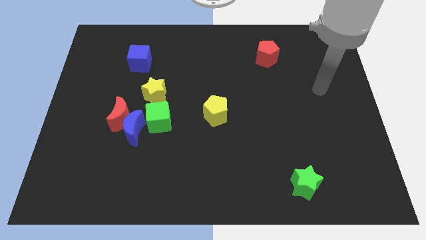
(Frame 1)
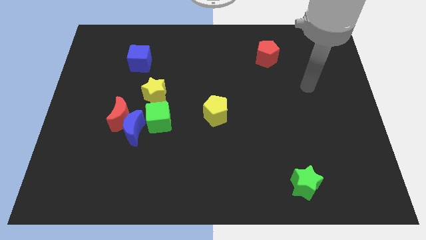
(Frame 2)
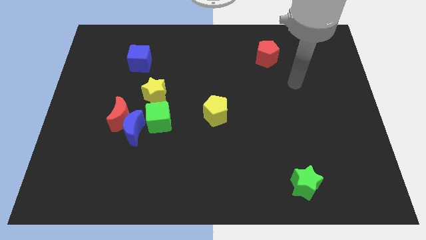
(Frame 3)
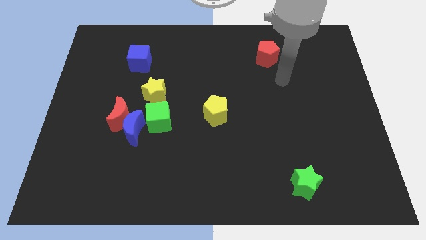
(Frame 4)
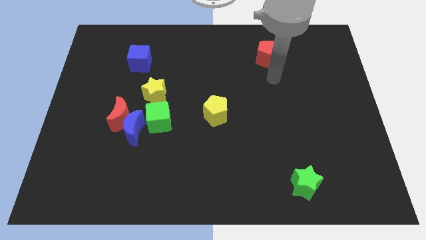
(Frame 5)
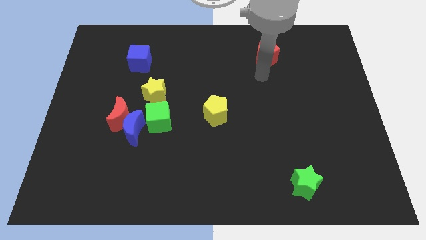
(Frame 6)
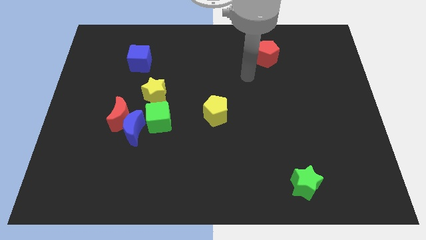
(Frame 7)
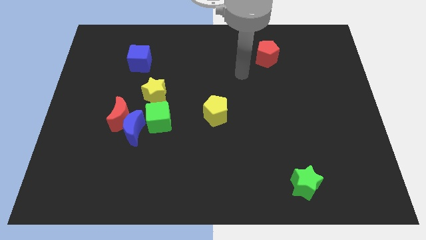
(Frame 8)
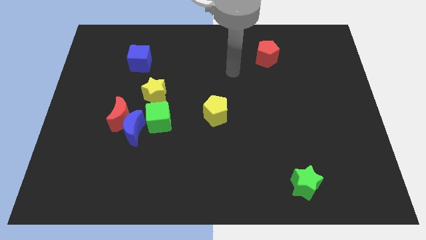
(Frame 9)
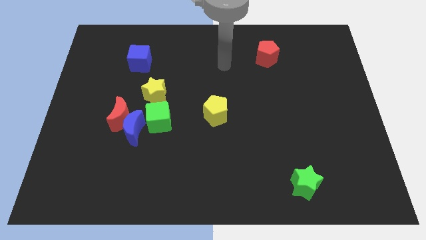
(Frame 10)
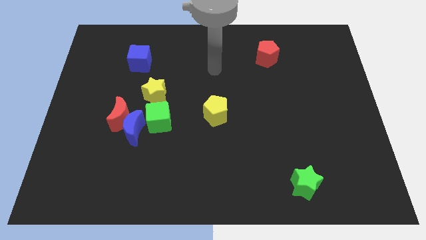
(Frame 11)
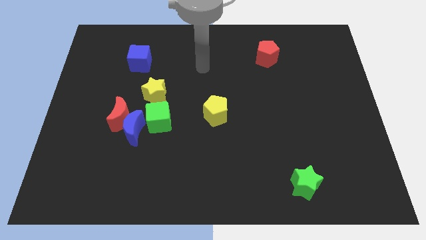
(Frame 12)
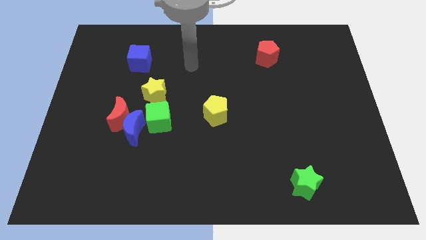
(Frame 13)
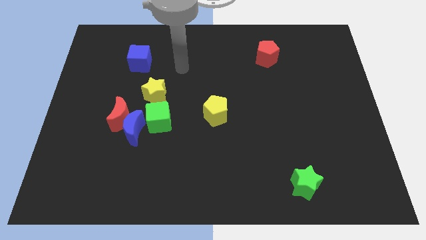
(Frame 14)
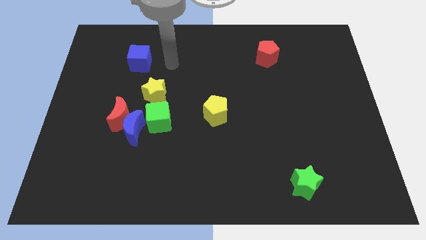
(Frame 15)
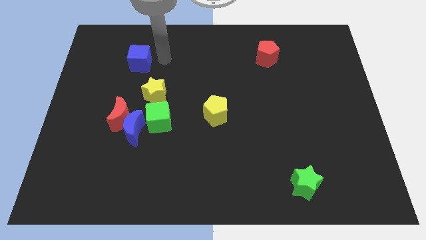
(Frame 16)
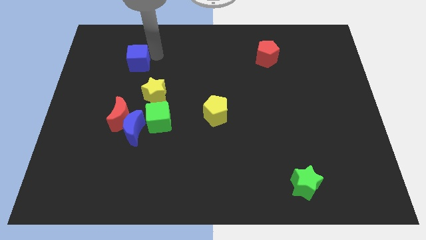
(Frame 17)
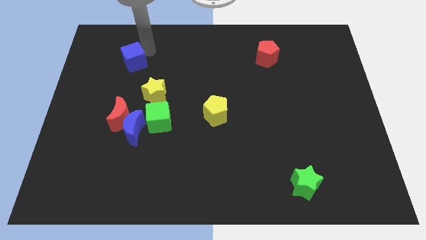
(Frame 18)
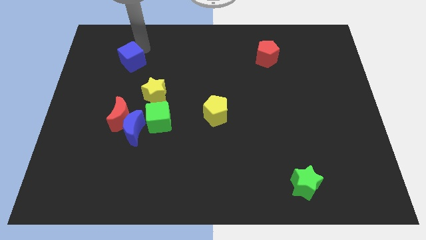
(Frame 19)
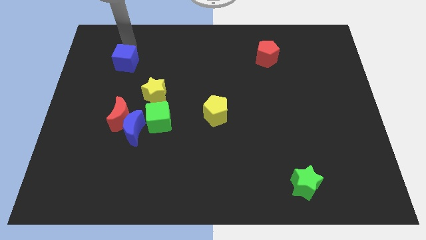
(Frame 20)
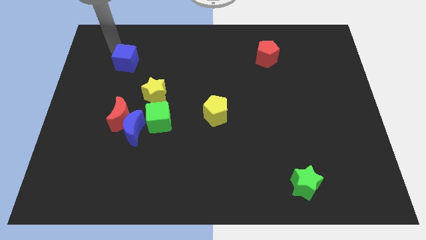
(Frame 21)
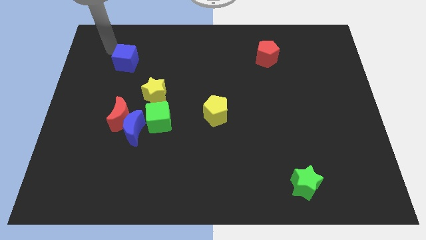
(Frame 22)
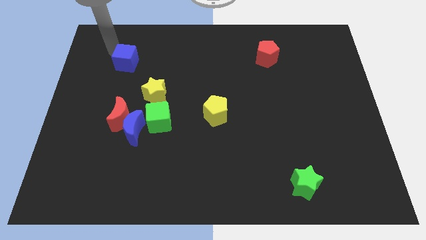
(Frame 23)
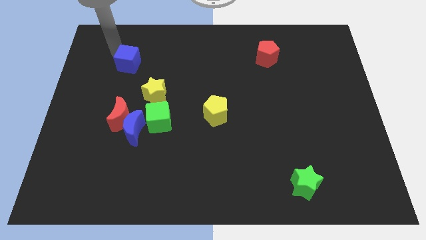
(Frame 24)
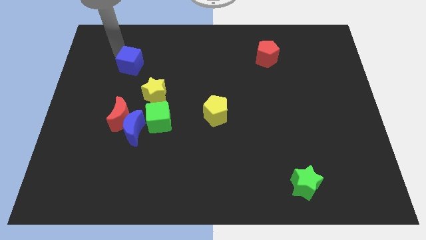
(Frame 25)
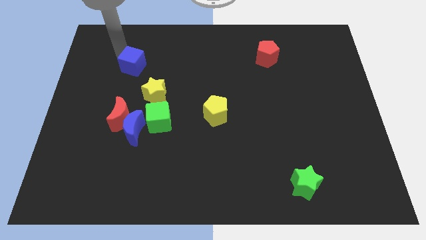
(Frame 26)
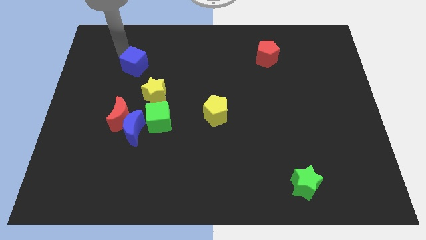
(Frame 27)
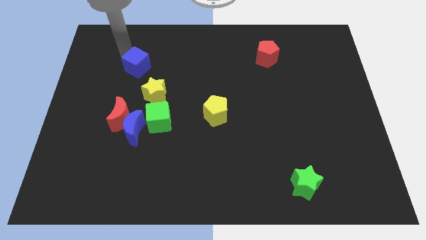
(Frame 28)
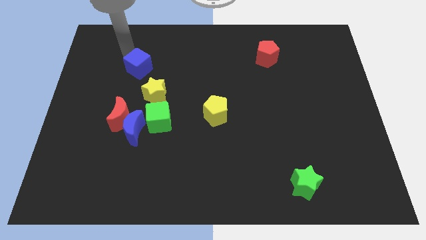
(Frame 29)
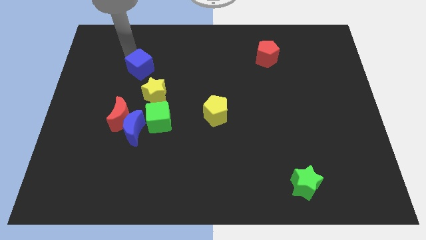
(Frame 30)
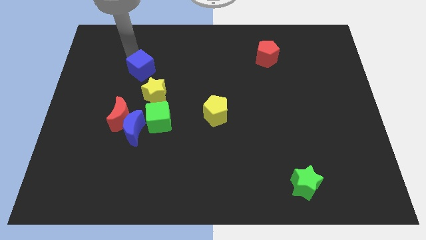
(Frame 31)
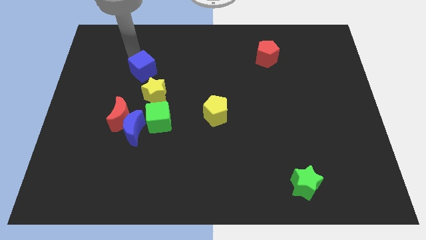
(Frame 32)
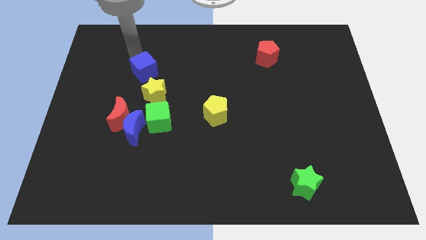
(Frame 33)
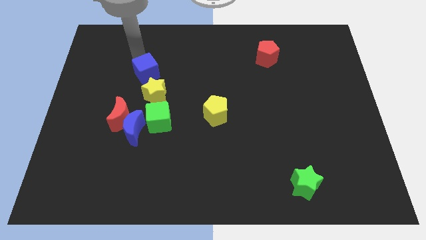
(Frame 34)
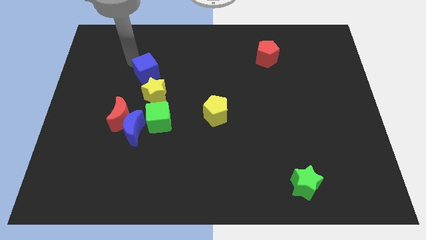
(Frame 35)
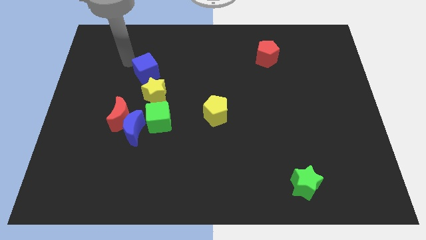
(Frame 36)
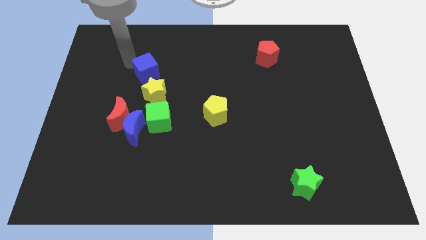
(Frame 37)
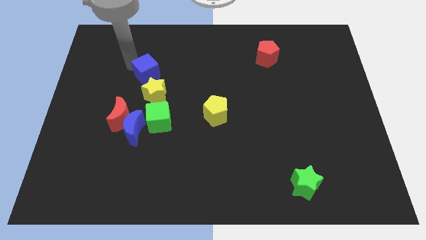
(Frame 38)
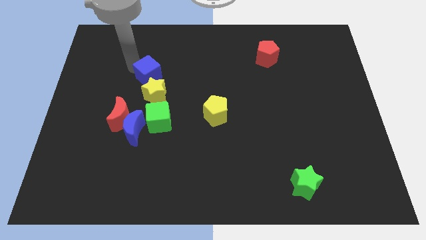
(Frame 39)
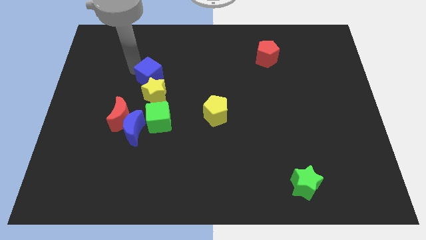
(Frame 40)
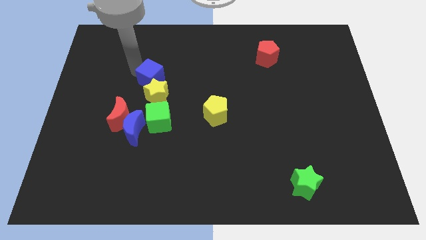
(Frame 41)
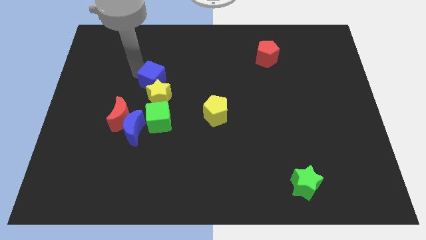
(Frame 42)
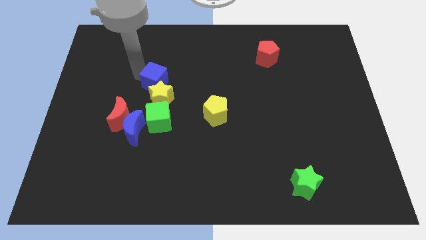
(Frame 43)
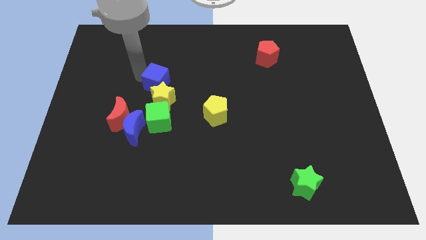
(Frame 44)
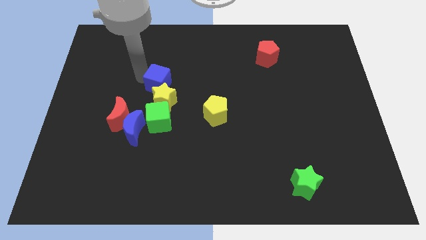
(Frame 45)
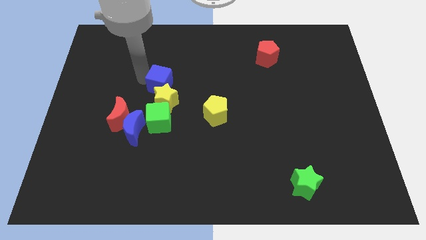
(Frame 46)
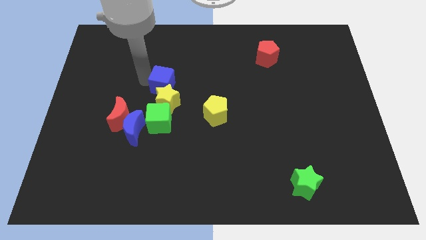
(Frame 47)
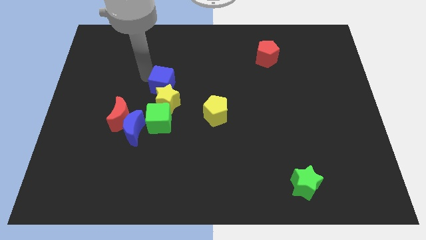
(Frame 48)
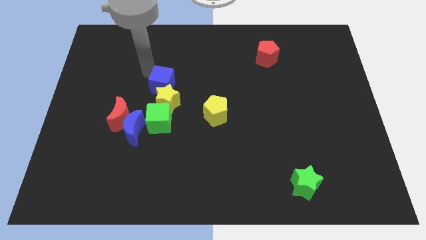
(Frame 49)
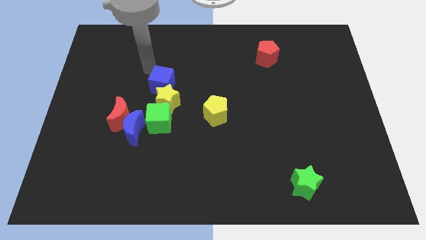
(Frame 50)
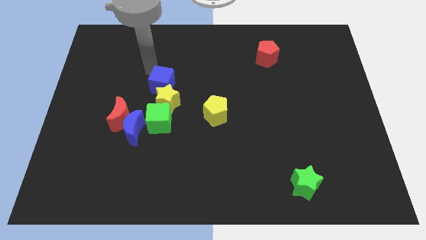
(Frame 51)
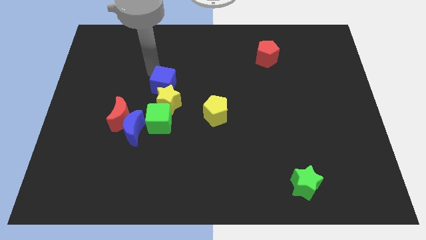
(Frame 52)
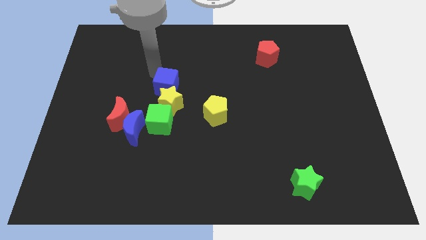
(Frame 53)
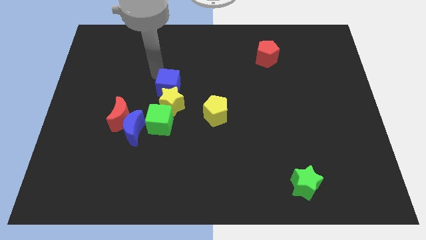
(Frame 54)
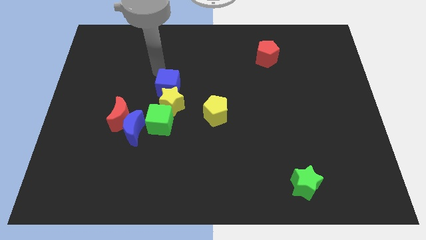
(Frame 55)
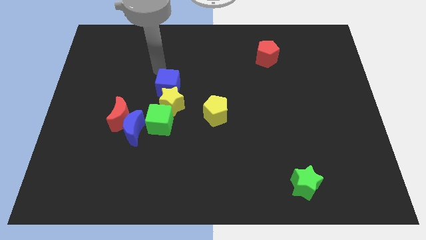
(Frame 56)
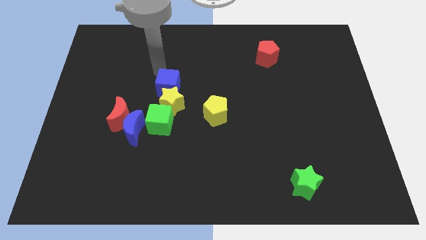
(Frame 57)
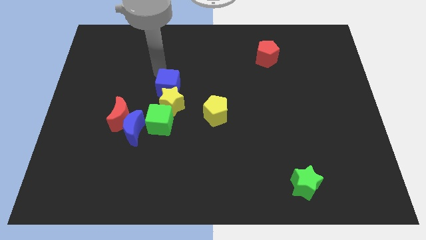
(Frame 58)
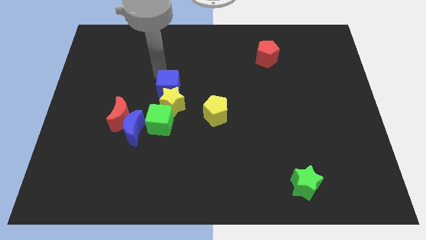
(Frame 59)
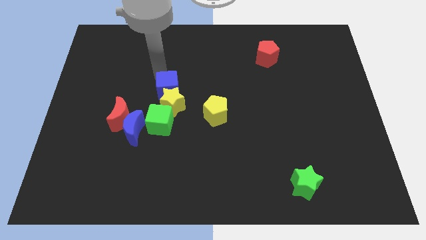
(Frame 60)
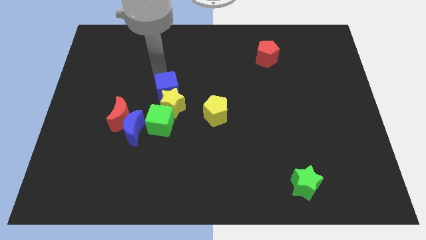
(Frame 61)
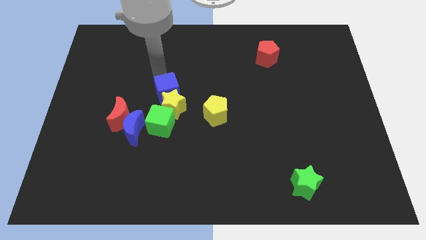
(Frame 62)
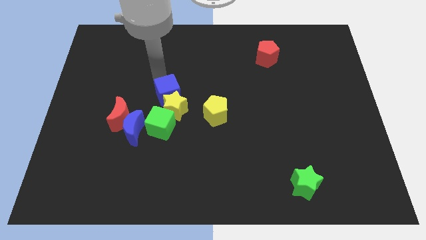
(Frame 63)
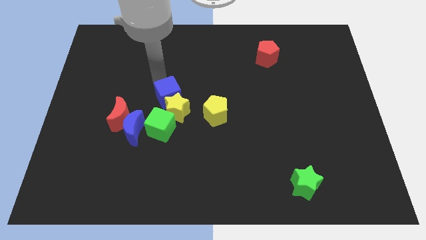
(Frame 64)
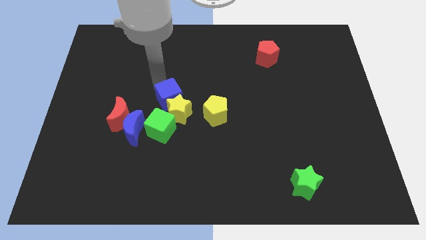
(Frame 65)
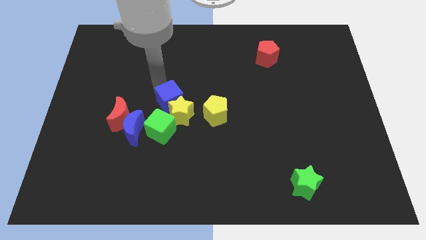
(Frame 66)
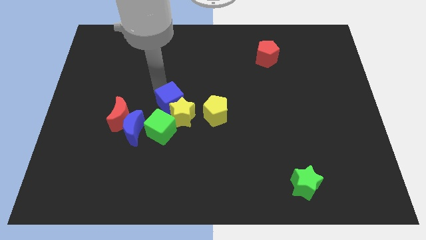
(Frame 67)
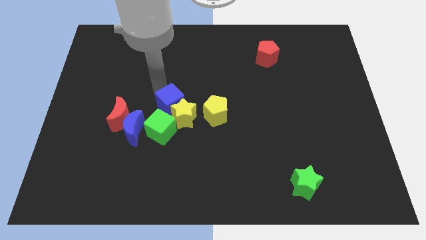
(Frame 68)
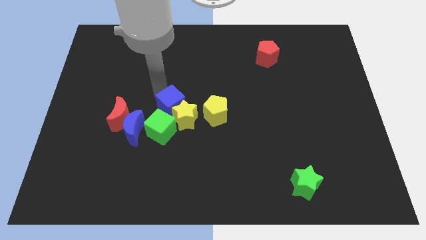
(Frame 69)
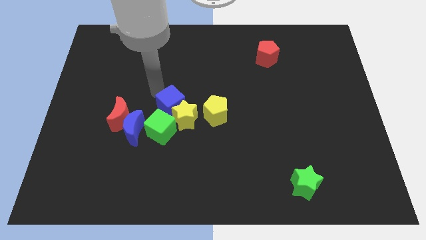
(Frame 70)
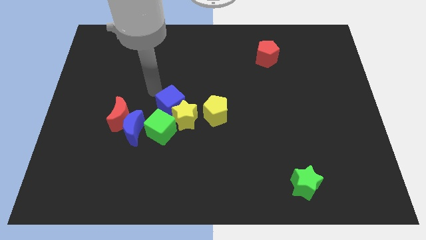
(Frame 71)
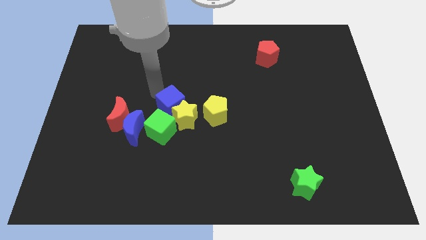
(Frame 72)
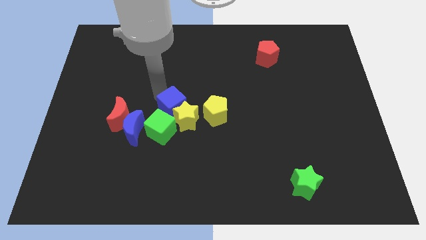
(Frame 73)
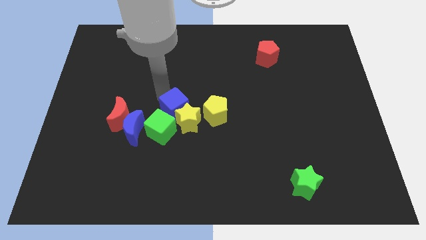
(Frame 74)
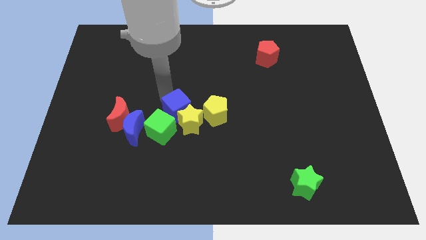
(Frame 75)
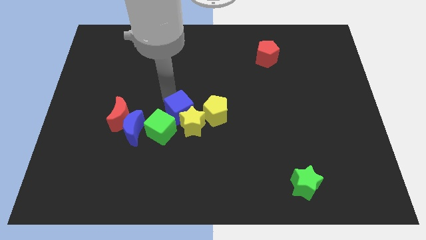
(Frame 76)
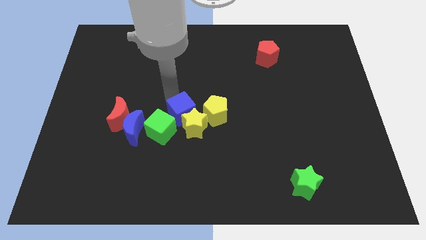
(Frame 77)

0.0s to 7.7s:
push the blue cube to the right side of the blue moon

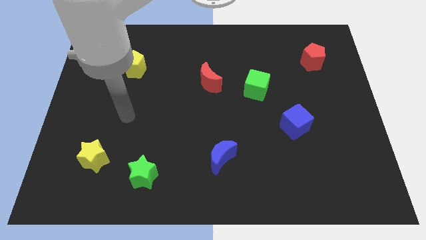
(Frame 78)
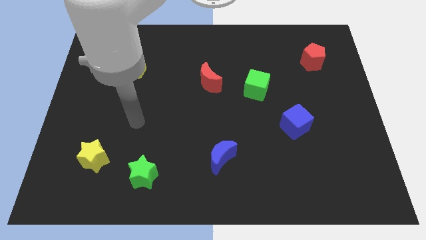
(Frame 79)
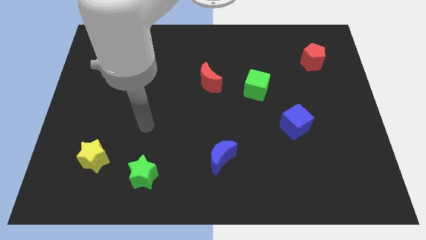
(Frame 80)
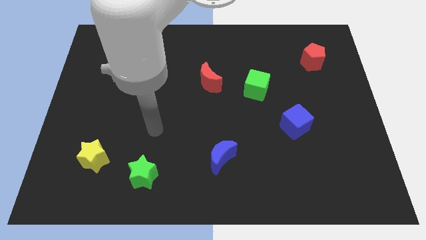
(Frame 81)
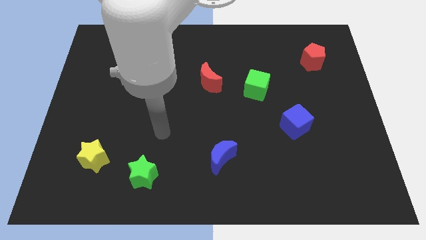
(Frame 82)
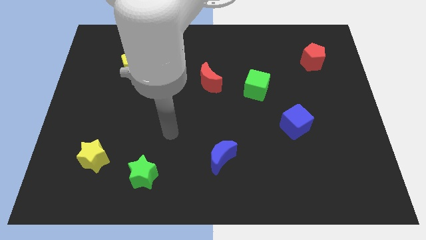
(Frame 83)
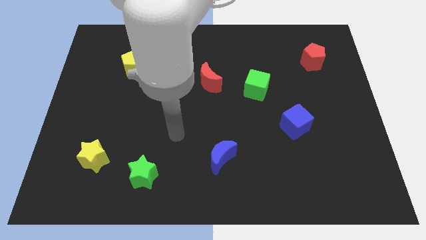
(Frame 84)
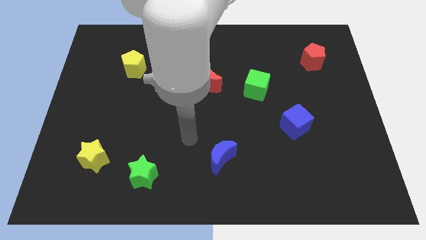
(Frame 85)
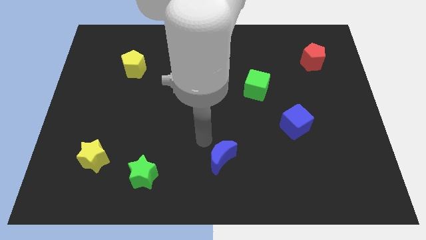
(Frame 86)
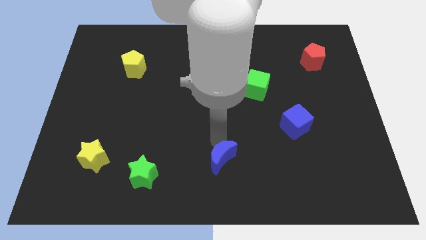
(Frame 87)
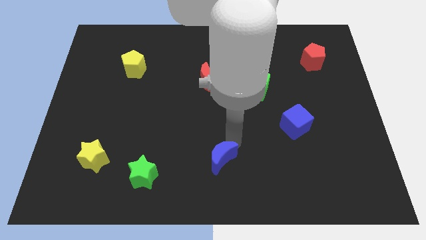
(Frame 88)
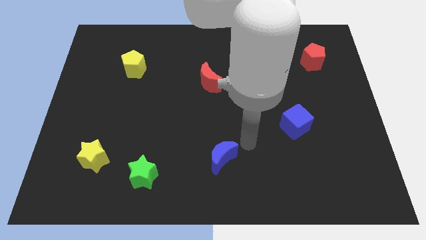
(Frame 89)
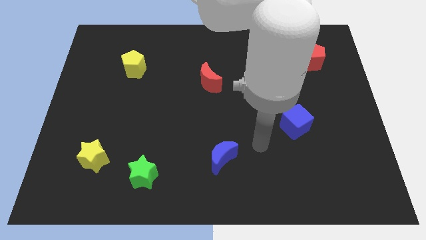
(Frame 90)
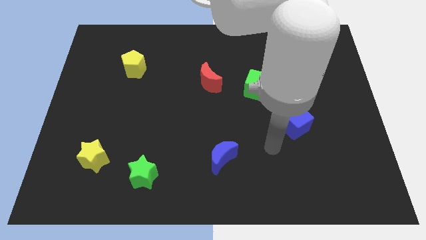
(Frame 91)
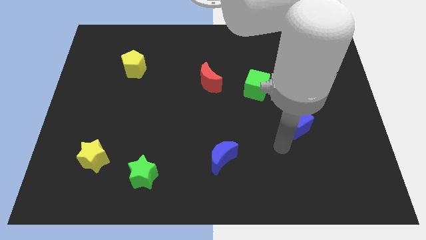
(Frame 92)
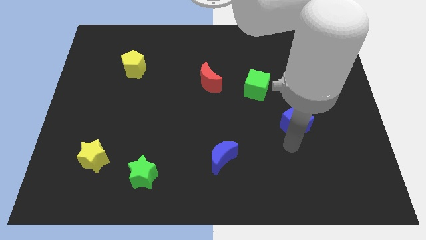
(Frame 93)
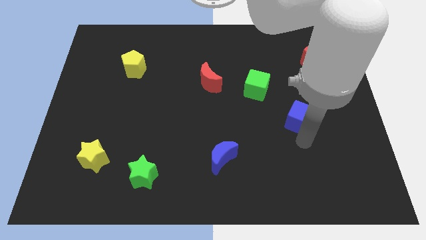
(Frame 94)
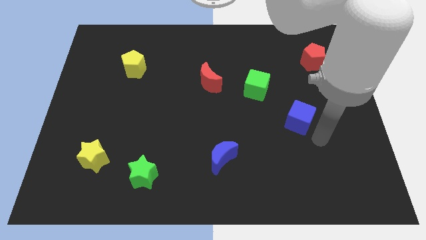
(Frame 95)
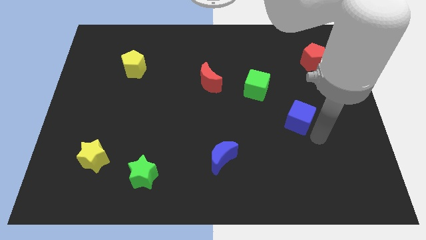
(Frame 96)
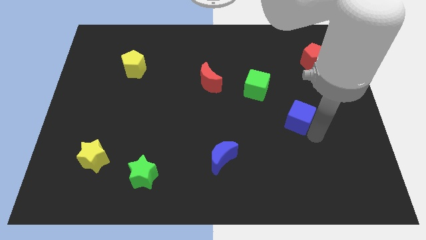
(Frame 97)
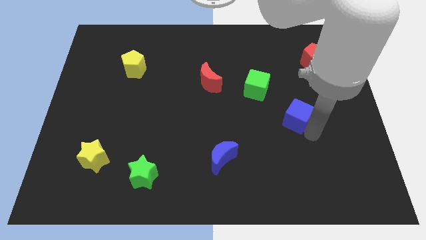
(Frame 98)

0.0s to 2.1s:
move the blue cube to the bottom right side of the green cube
